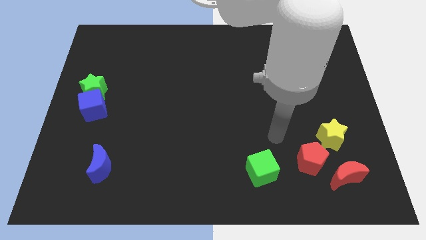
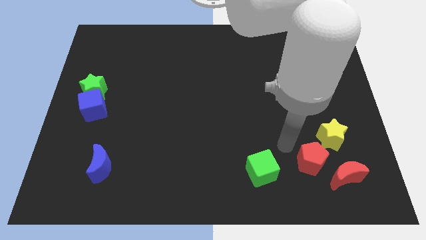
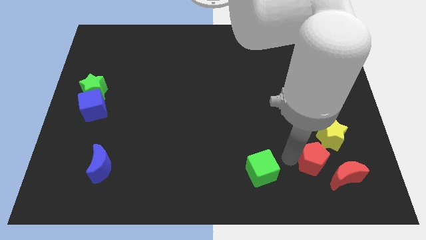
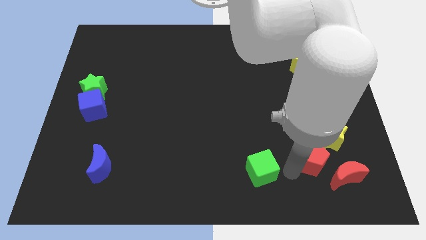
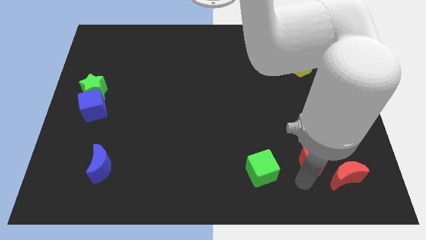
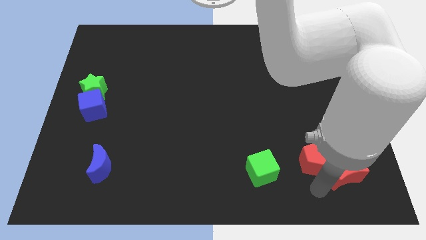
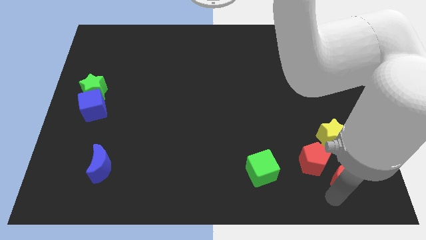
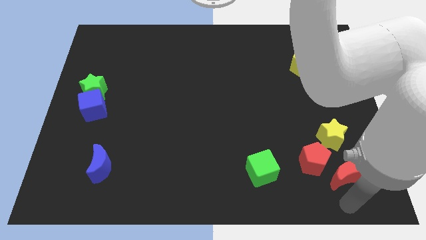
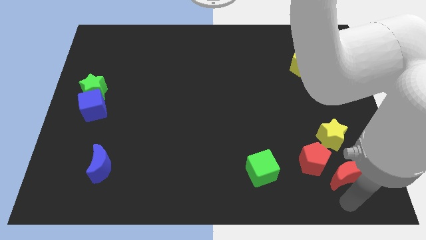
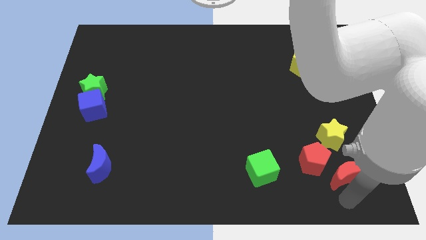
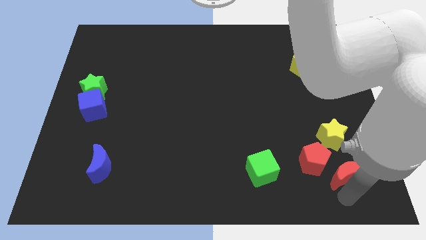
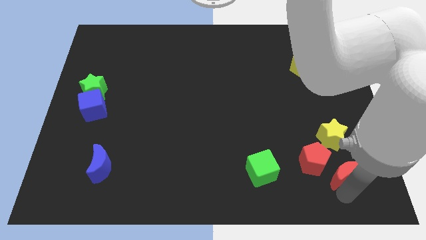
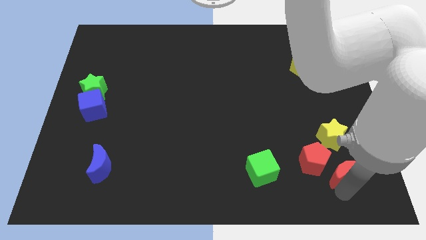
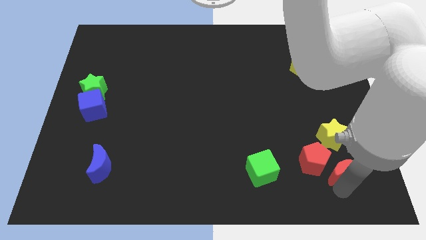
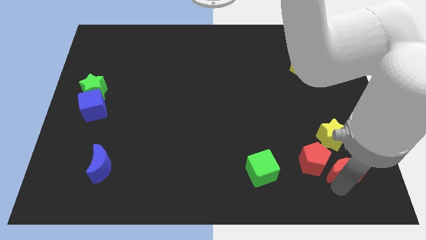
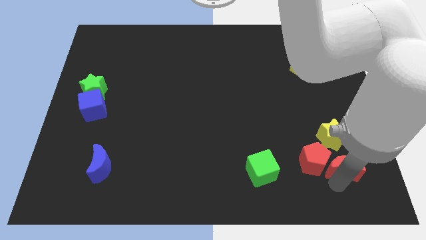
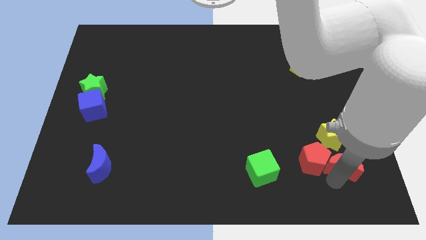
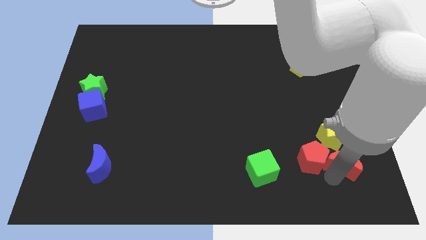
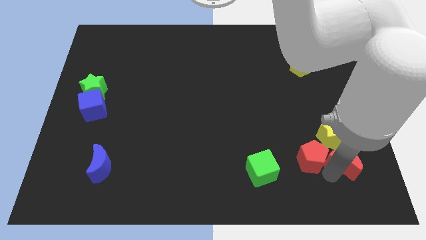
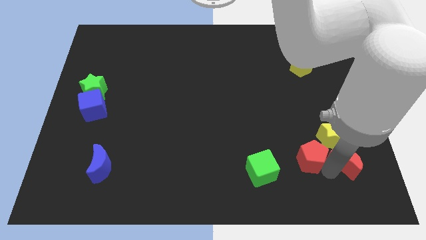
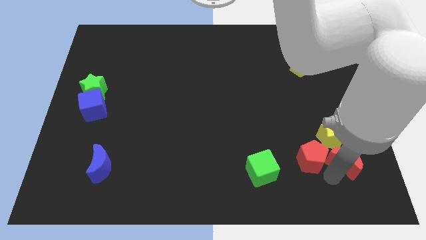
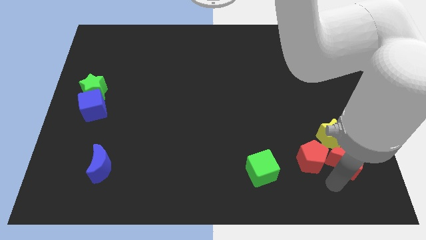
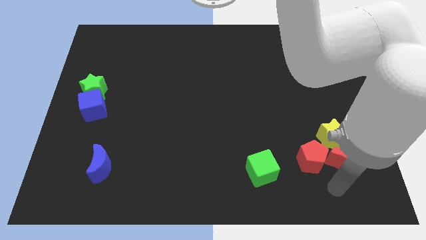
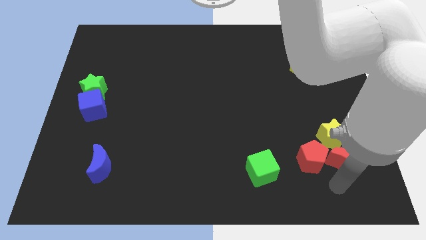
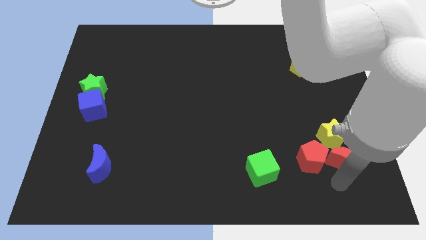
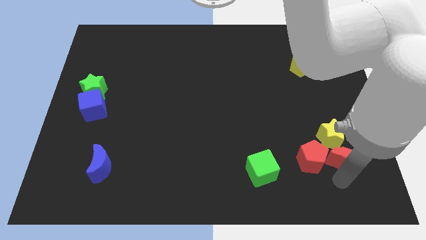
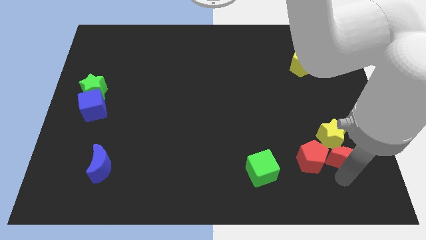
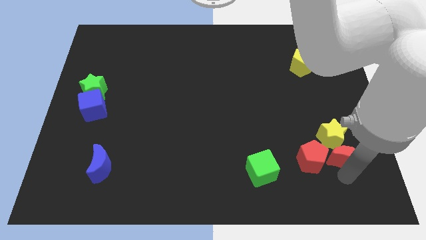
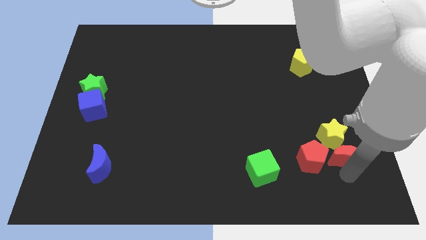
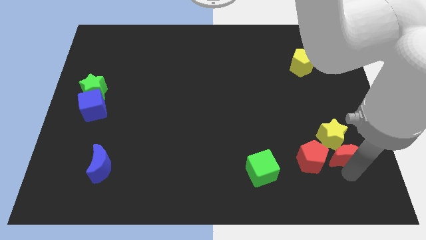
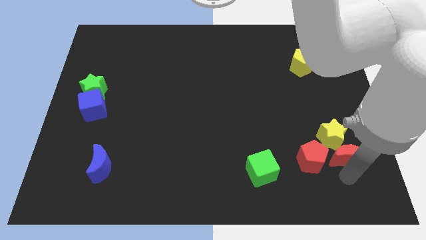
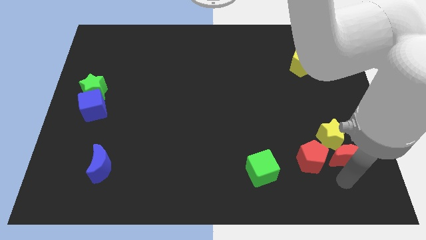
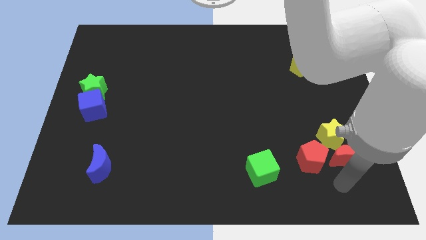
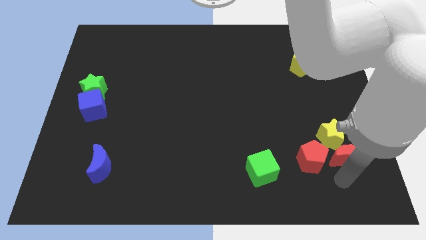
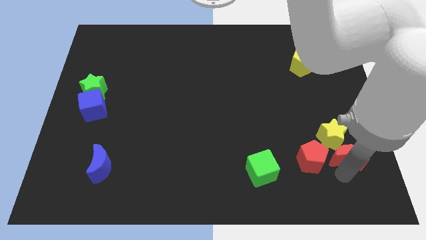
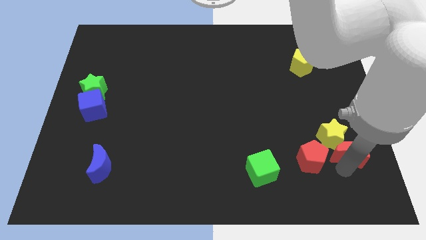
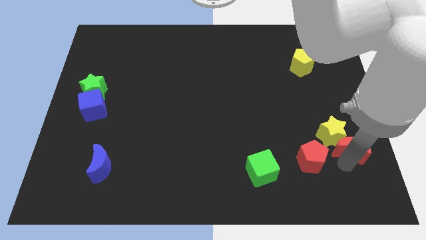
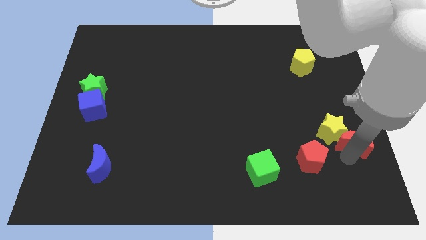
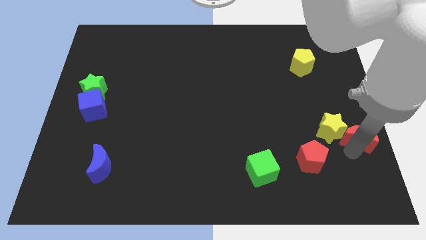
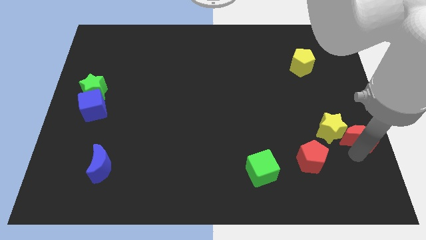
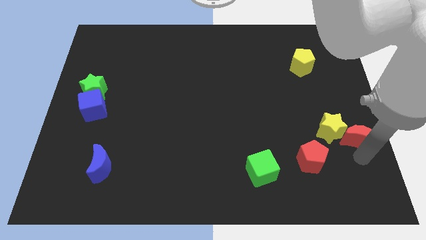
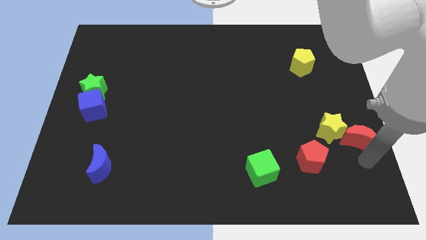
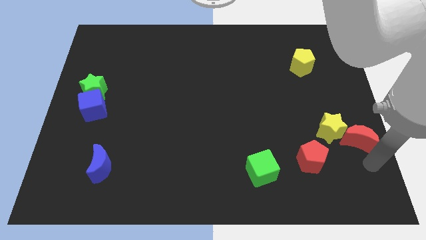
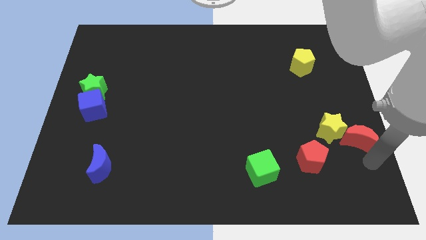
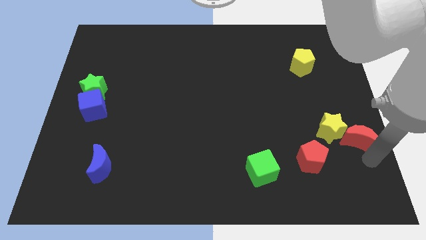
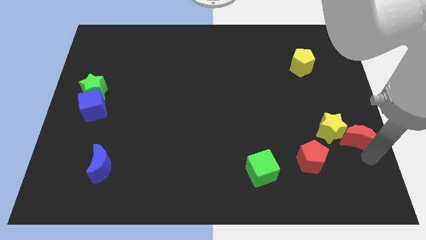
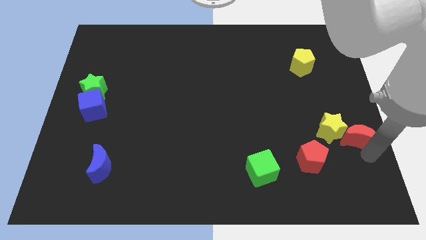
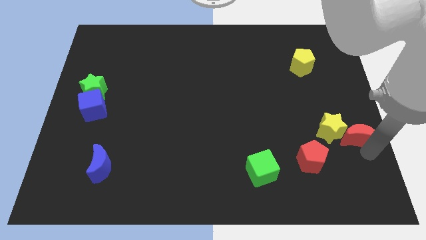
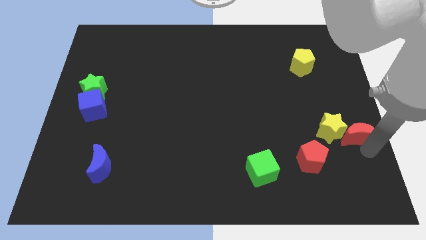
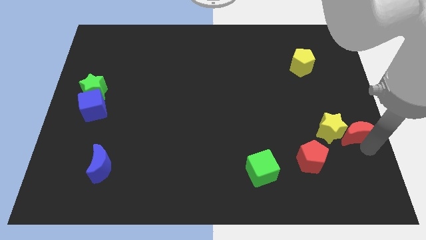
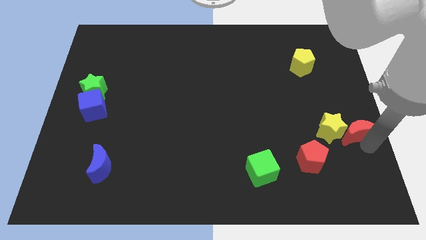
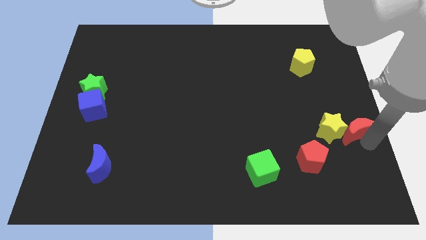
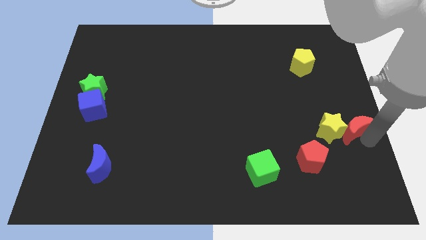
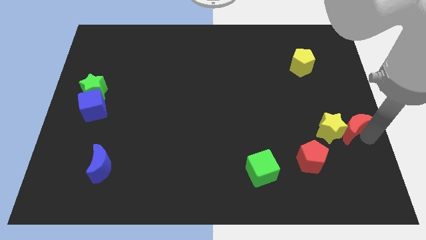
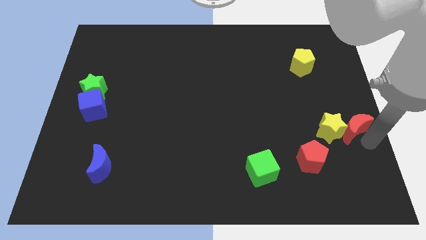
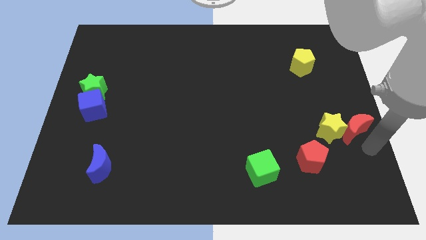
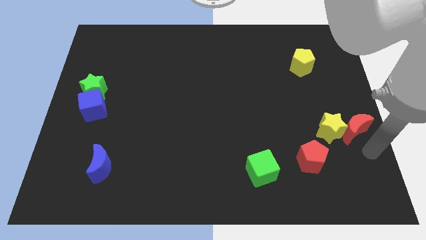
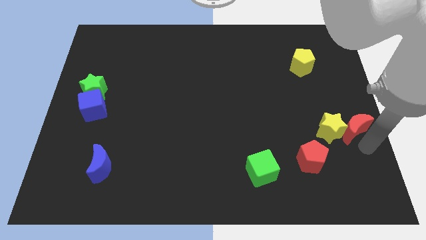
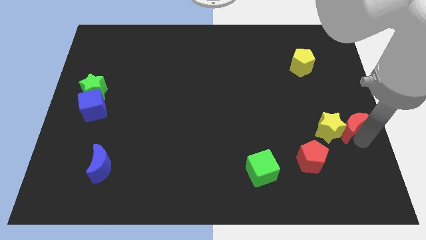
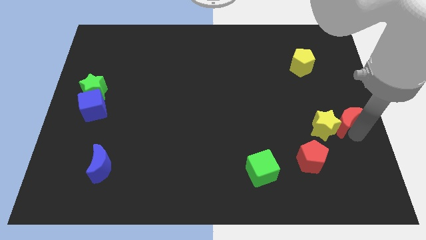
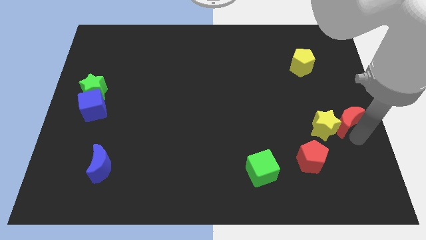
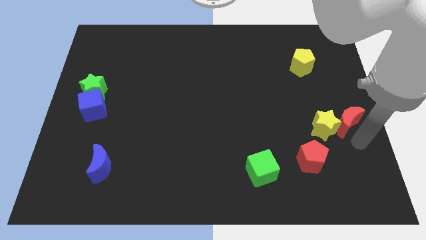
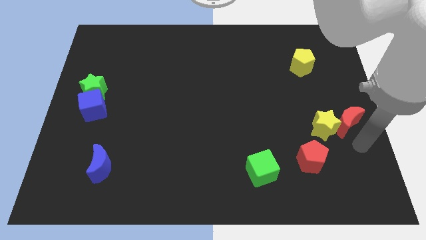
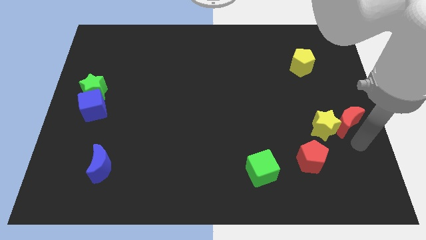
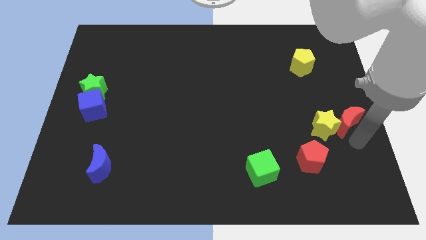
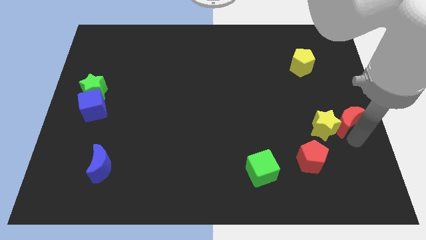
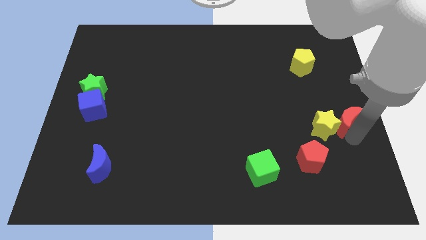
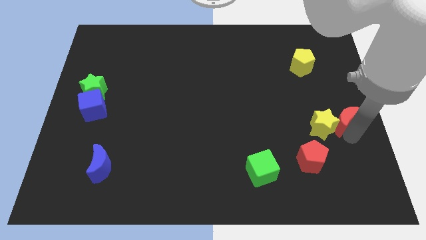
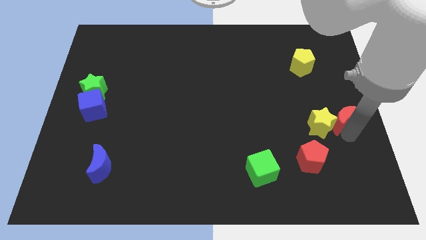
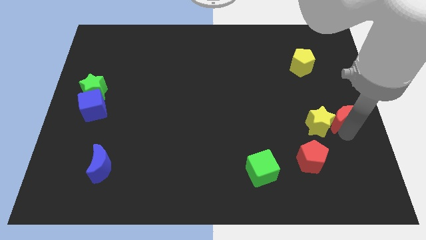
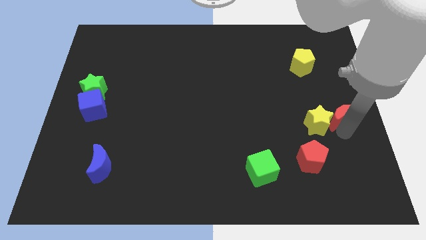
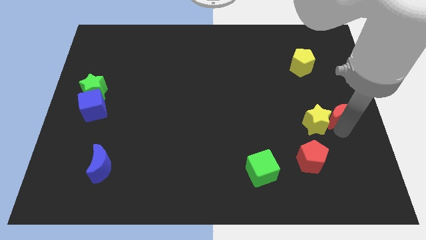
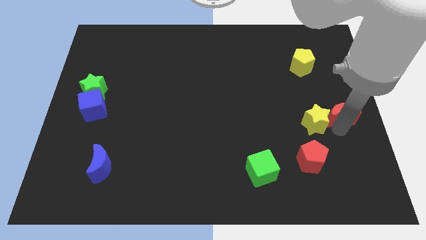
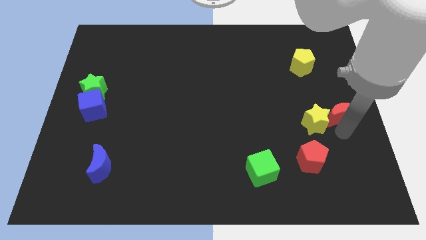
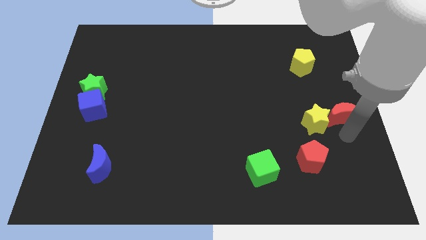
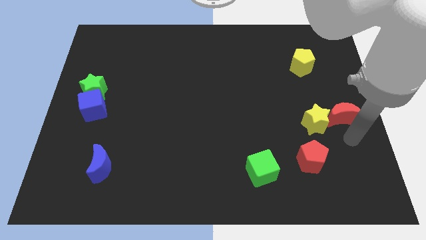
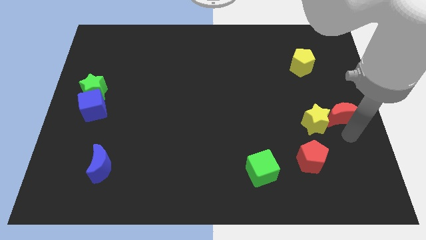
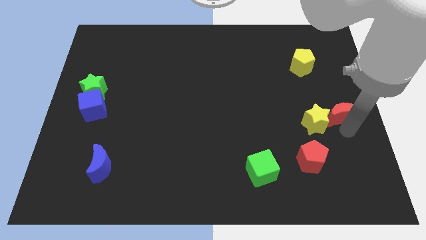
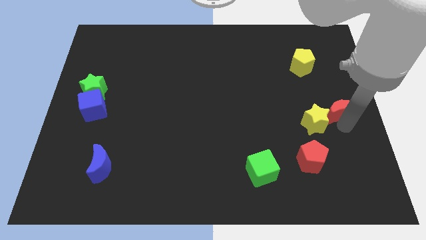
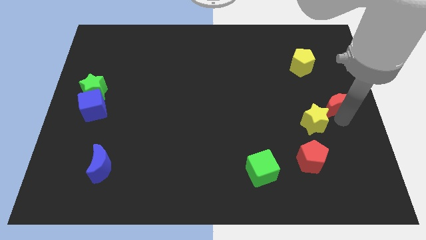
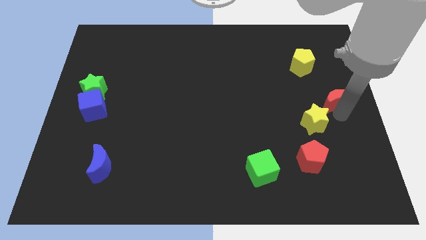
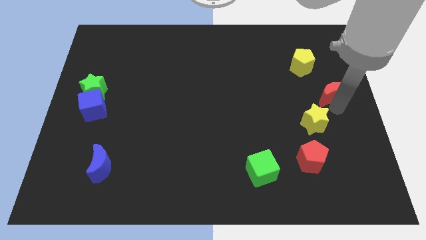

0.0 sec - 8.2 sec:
slide the red moon upwards
